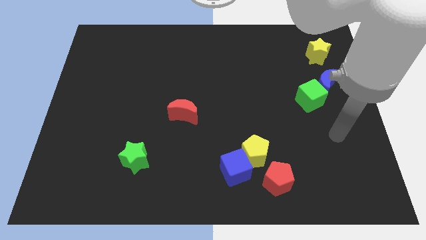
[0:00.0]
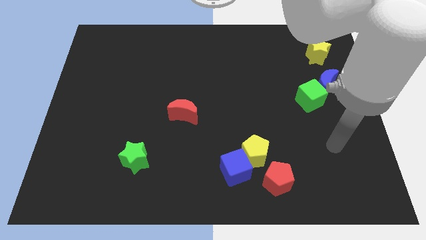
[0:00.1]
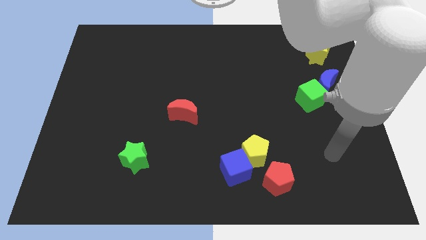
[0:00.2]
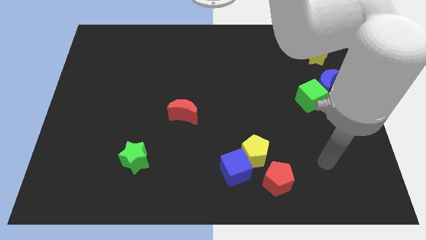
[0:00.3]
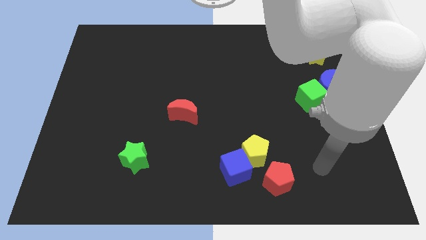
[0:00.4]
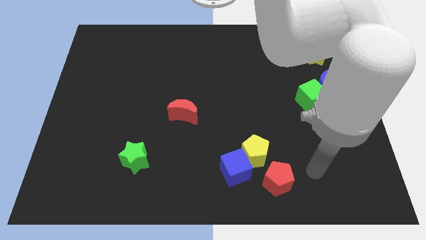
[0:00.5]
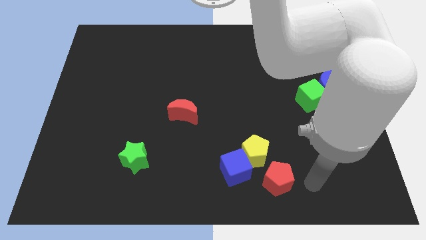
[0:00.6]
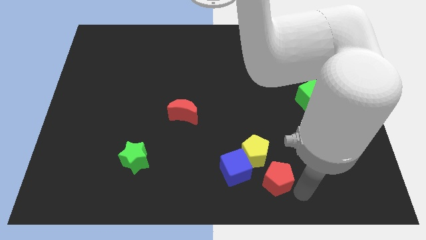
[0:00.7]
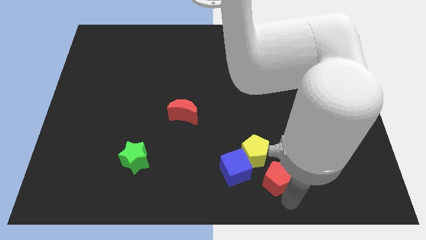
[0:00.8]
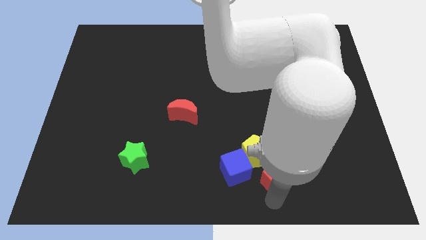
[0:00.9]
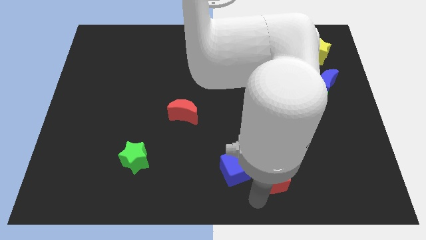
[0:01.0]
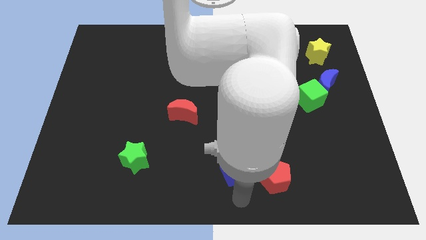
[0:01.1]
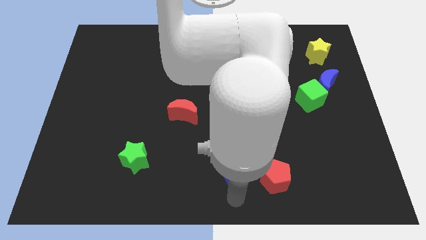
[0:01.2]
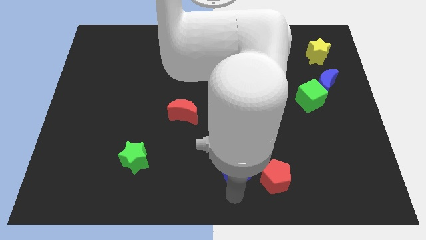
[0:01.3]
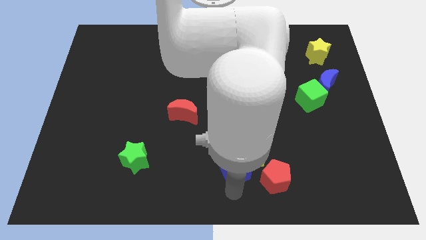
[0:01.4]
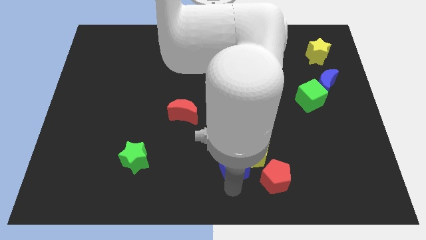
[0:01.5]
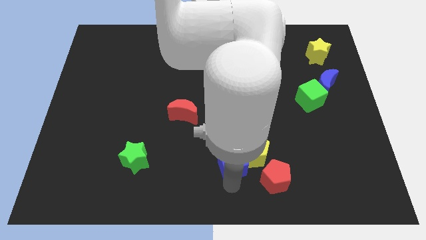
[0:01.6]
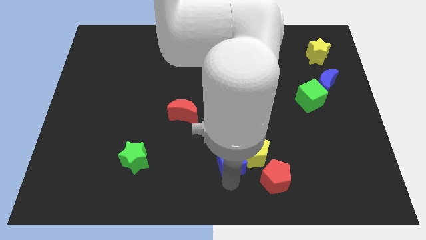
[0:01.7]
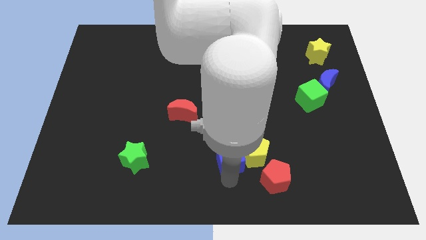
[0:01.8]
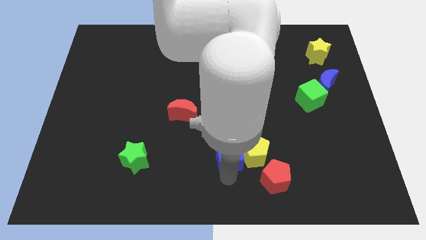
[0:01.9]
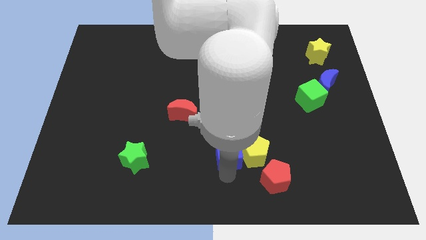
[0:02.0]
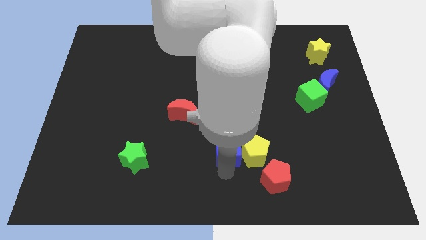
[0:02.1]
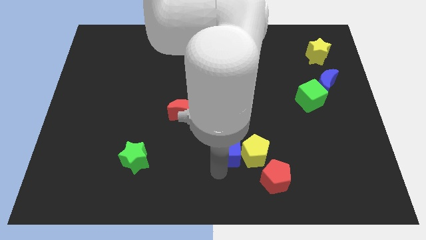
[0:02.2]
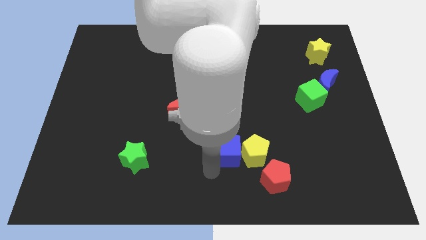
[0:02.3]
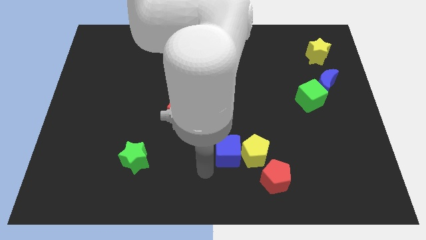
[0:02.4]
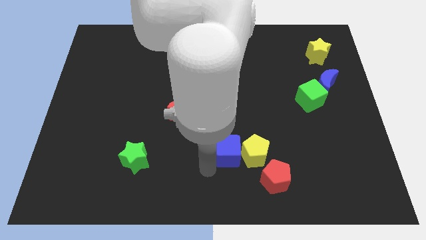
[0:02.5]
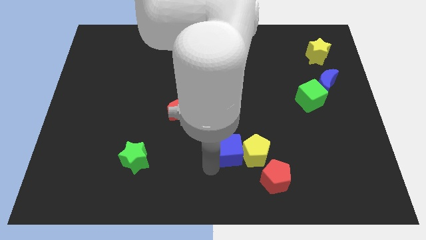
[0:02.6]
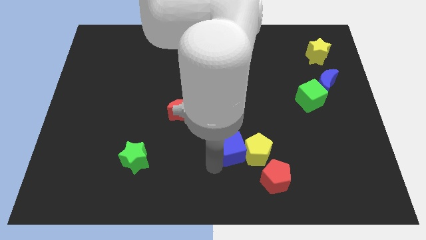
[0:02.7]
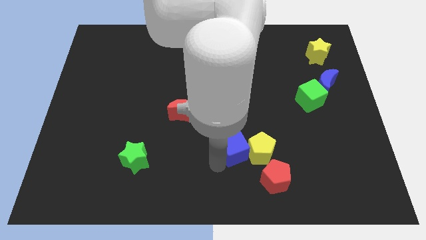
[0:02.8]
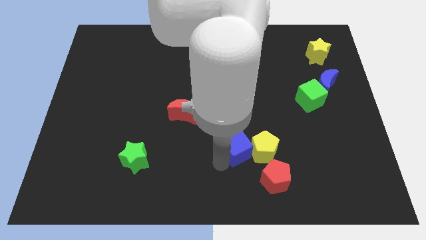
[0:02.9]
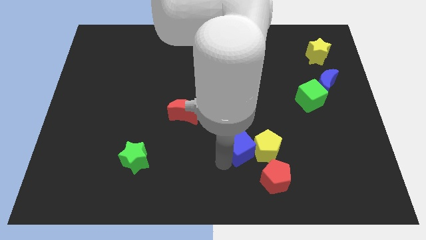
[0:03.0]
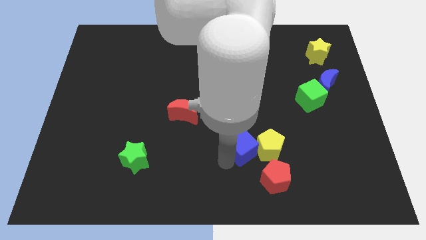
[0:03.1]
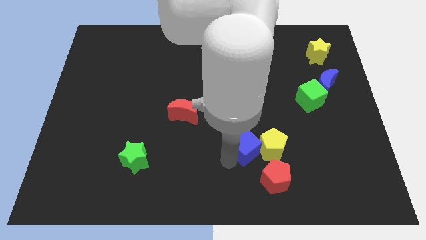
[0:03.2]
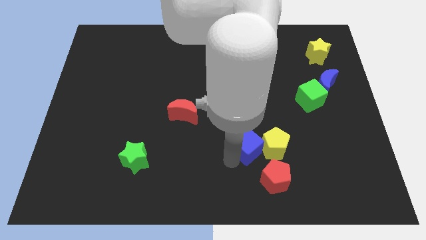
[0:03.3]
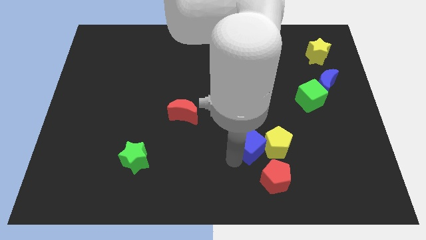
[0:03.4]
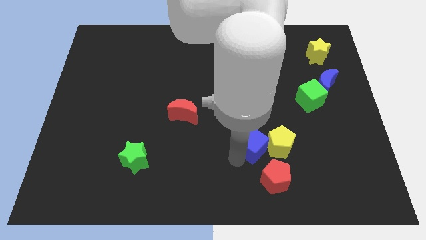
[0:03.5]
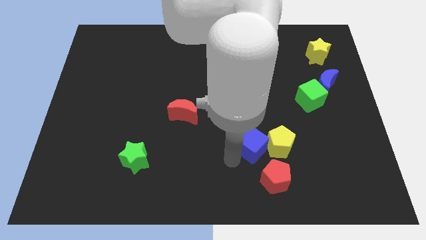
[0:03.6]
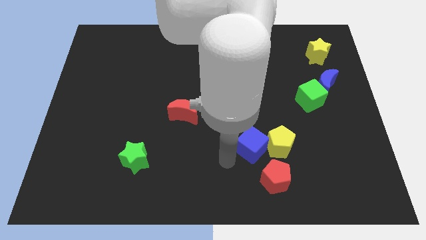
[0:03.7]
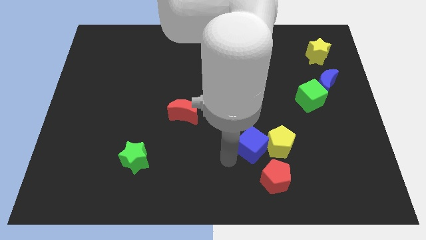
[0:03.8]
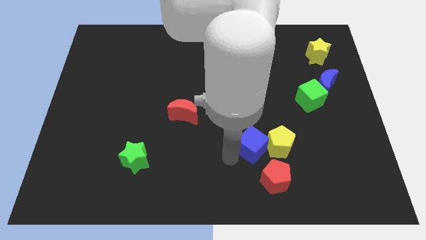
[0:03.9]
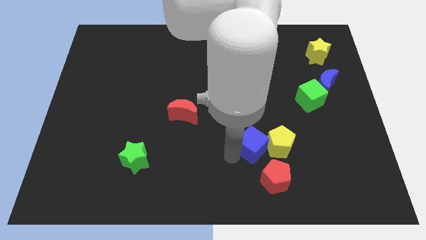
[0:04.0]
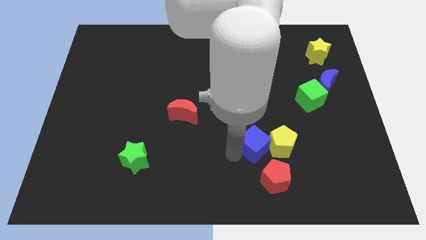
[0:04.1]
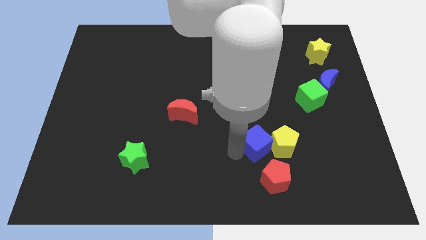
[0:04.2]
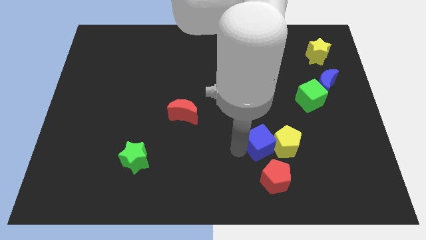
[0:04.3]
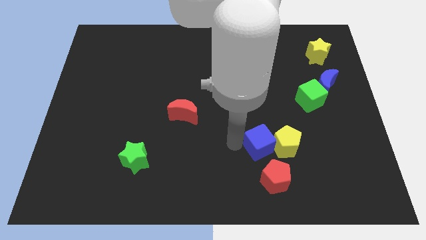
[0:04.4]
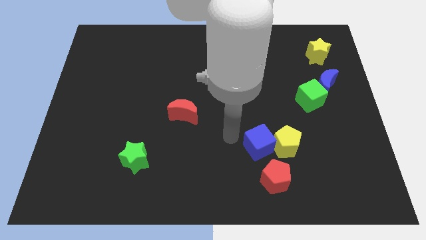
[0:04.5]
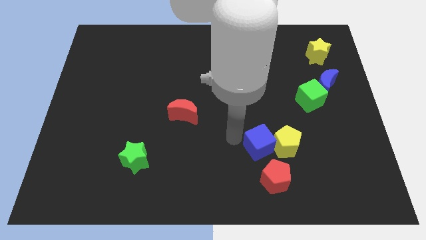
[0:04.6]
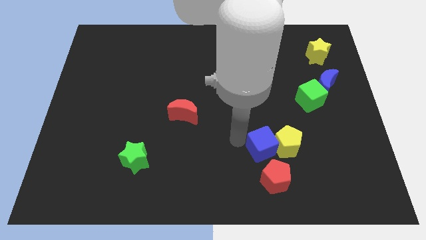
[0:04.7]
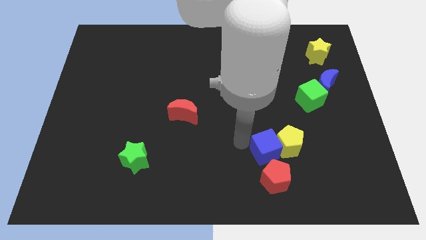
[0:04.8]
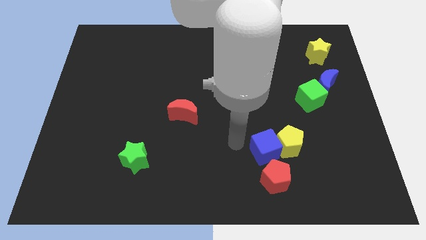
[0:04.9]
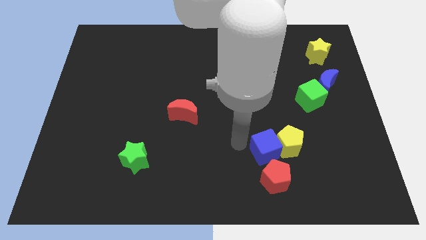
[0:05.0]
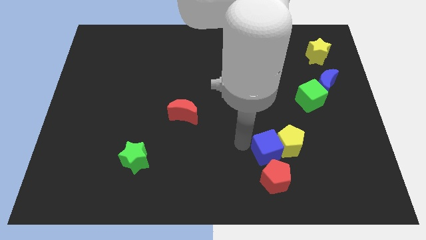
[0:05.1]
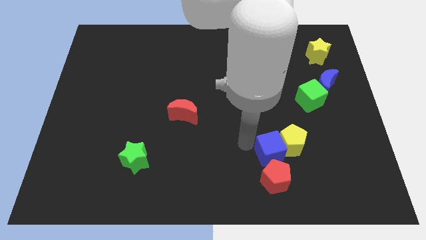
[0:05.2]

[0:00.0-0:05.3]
put the blue cube to the top right side of the red pentagon
